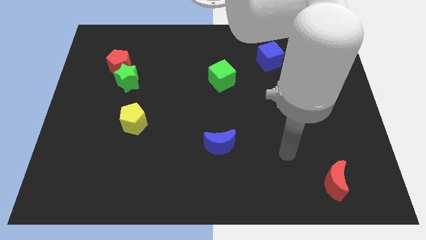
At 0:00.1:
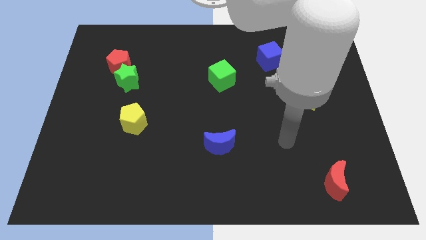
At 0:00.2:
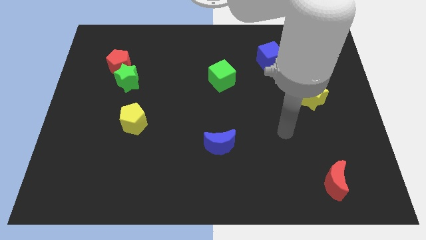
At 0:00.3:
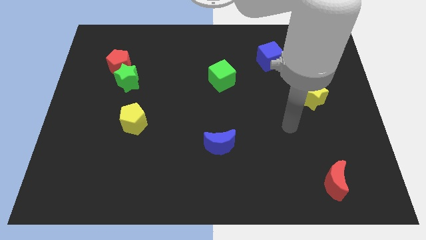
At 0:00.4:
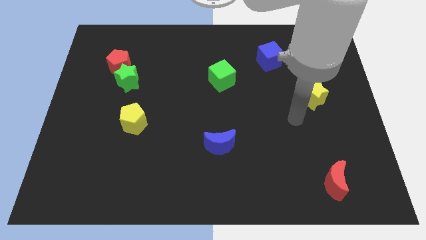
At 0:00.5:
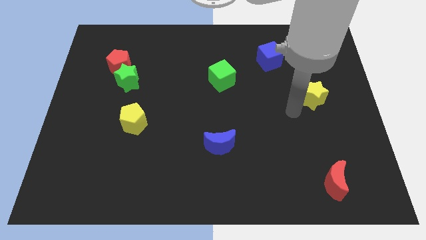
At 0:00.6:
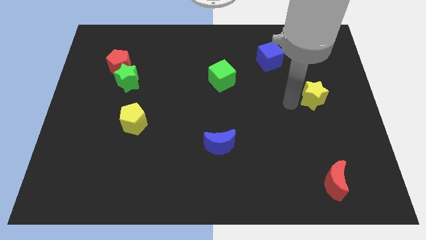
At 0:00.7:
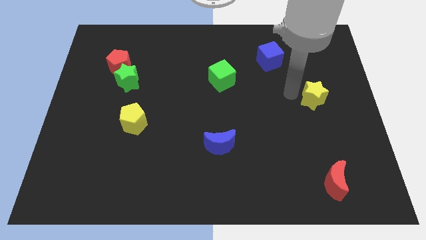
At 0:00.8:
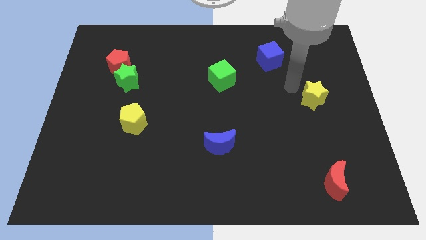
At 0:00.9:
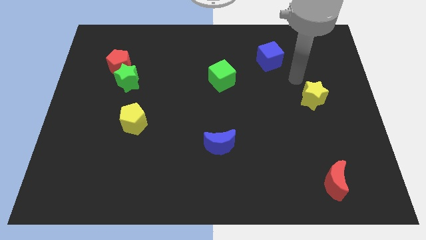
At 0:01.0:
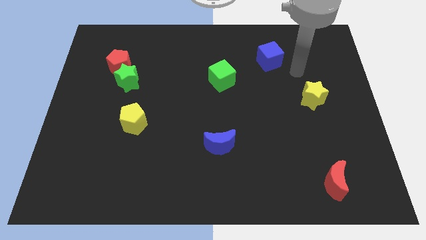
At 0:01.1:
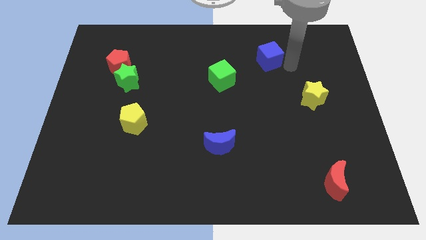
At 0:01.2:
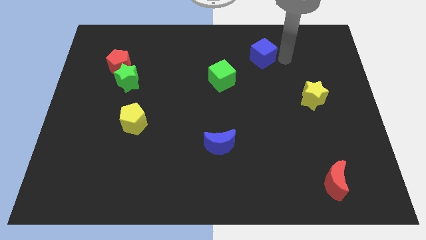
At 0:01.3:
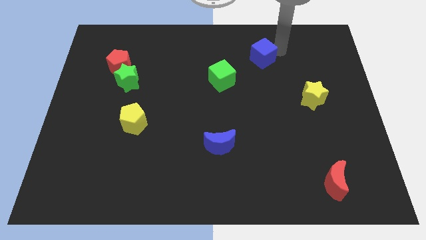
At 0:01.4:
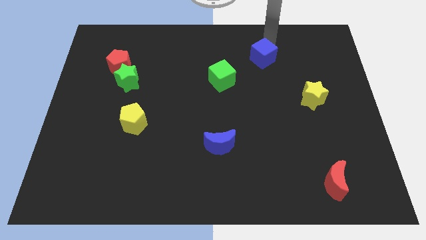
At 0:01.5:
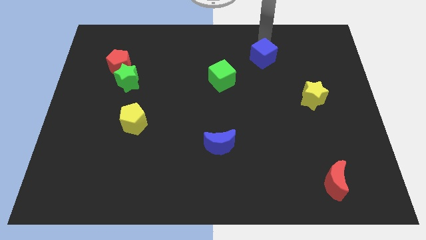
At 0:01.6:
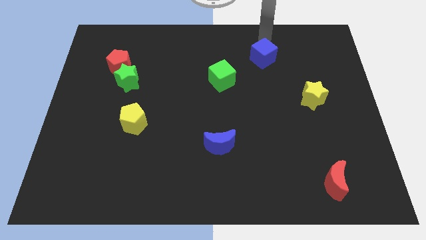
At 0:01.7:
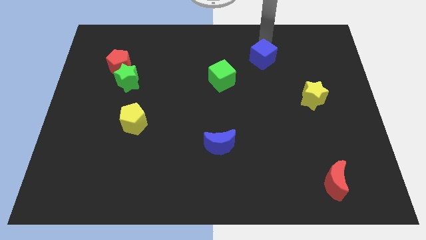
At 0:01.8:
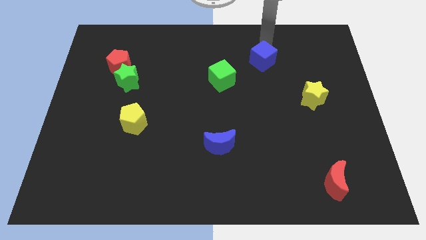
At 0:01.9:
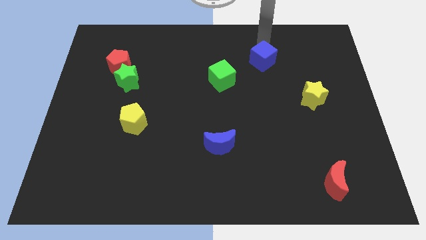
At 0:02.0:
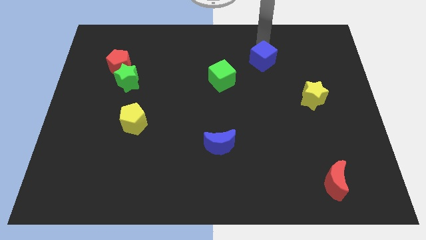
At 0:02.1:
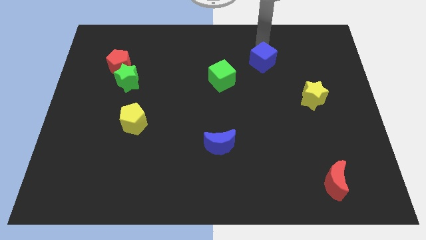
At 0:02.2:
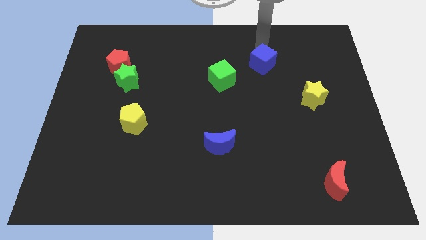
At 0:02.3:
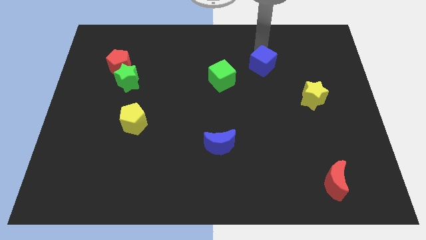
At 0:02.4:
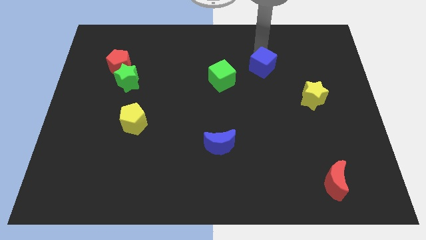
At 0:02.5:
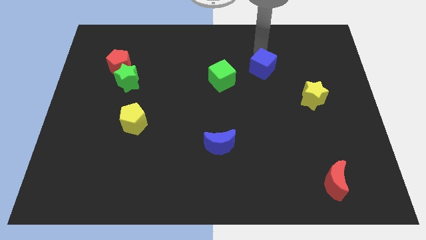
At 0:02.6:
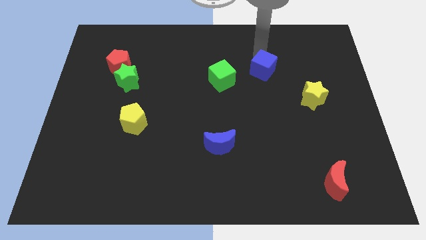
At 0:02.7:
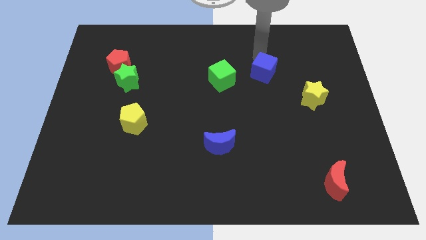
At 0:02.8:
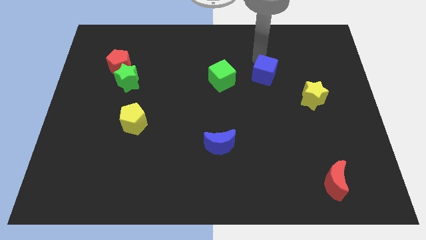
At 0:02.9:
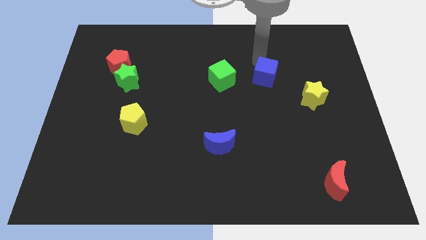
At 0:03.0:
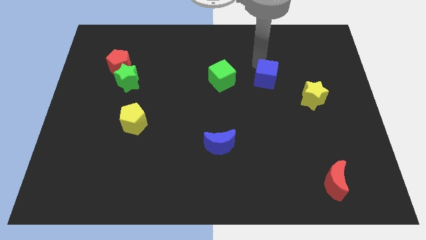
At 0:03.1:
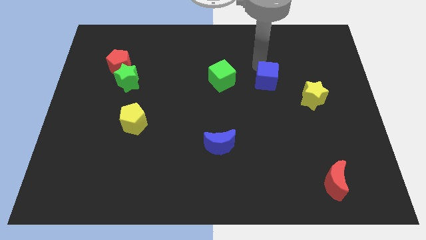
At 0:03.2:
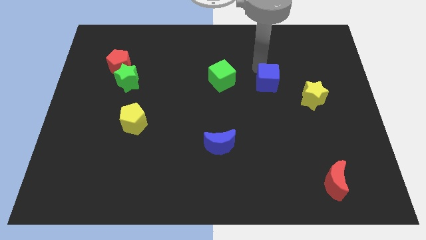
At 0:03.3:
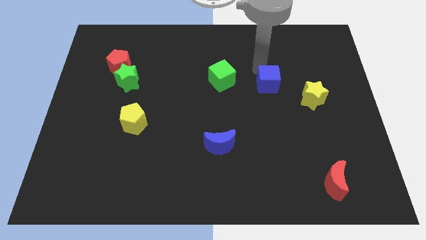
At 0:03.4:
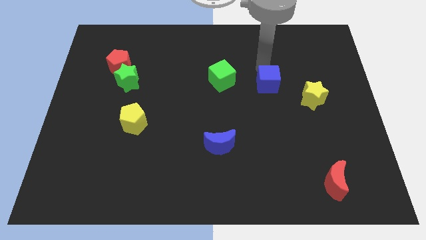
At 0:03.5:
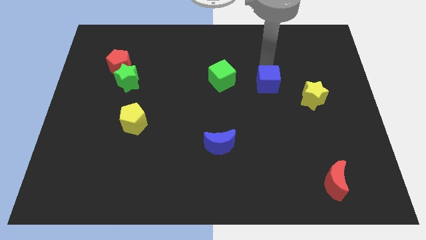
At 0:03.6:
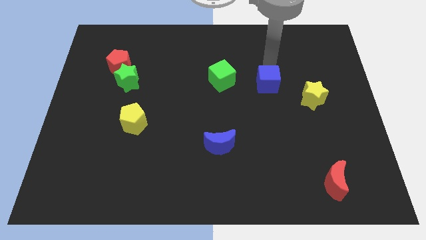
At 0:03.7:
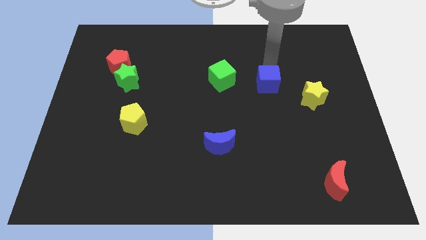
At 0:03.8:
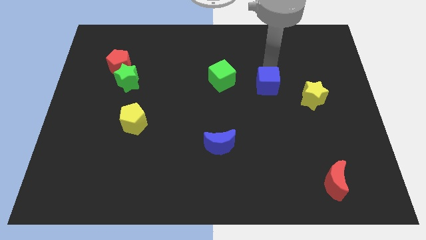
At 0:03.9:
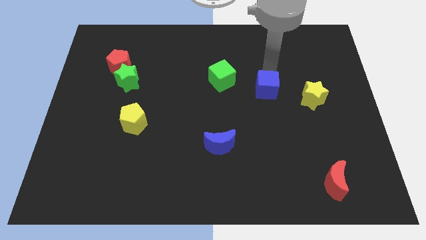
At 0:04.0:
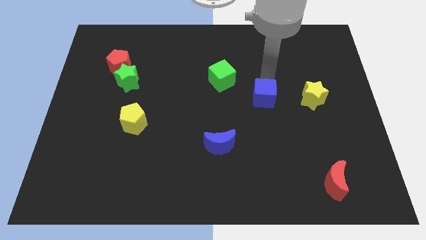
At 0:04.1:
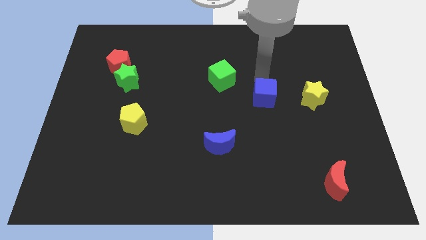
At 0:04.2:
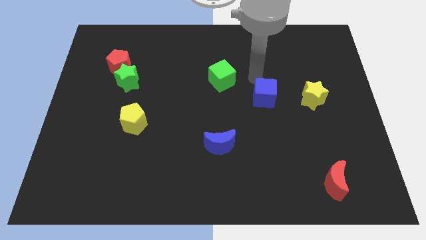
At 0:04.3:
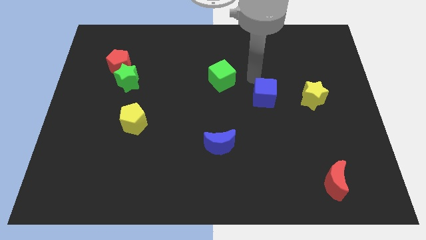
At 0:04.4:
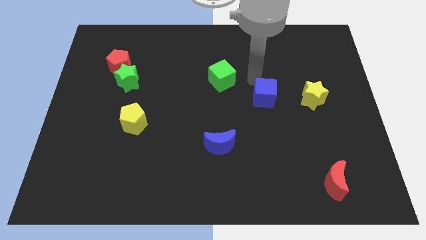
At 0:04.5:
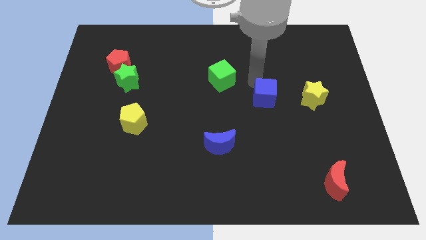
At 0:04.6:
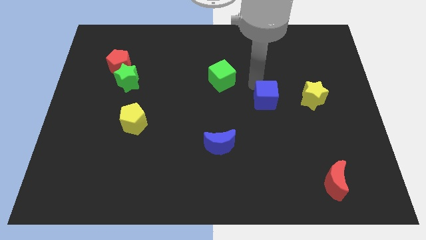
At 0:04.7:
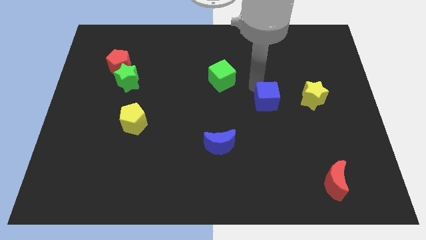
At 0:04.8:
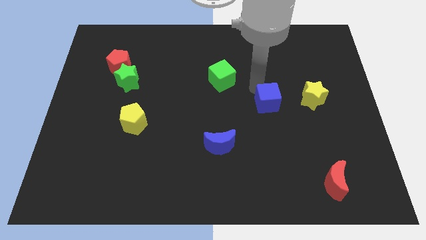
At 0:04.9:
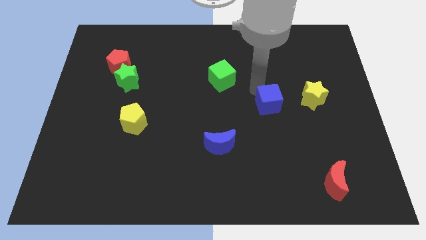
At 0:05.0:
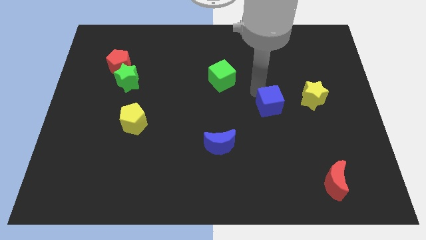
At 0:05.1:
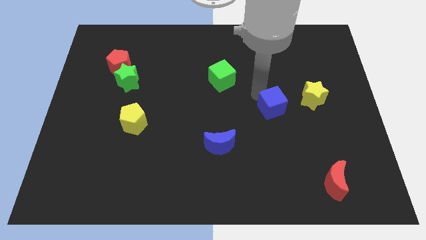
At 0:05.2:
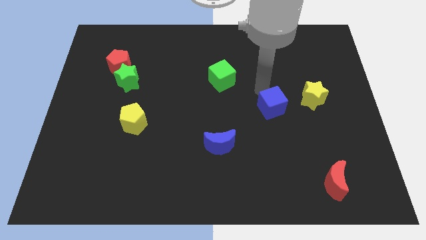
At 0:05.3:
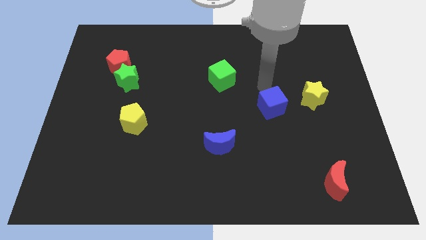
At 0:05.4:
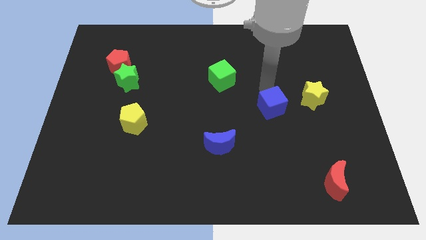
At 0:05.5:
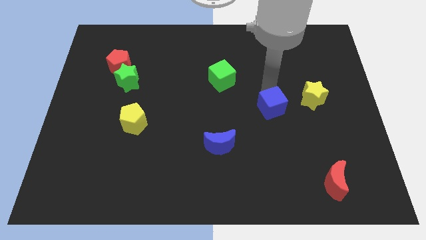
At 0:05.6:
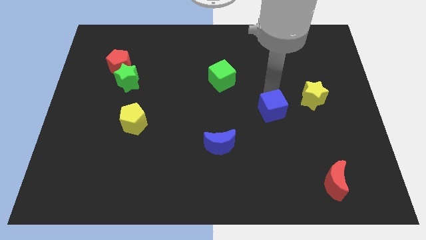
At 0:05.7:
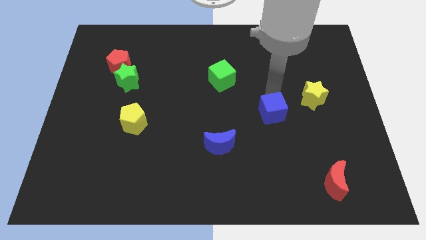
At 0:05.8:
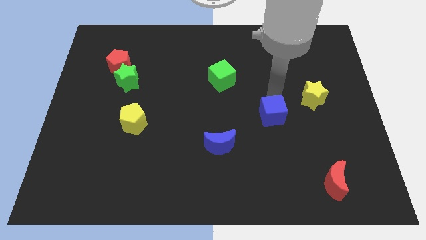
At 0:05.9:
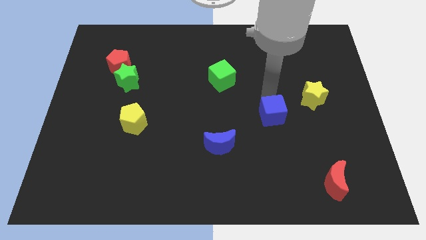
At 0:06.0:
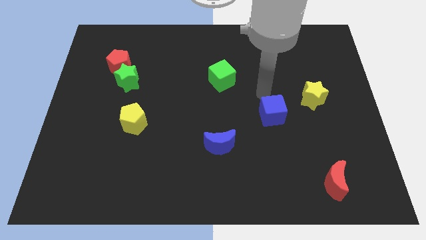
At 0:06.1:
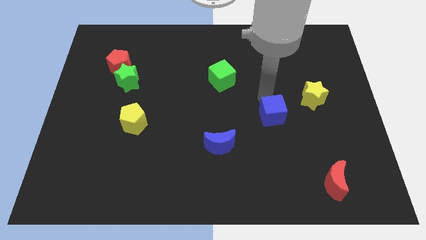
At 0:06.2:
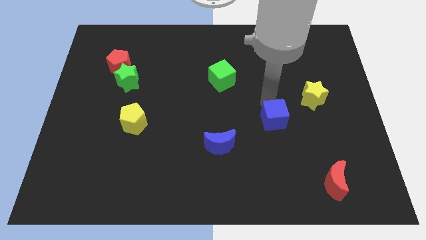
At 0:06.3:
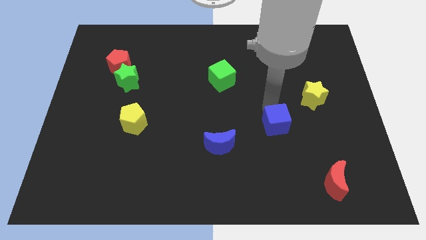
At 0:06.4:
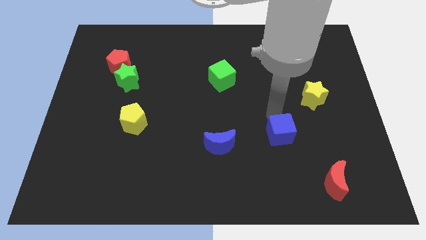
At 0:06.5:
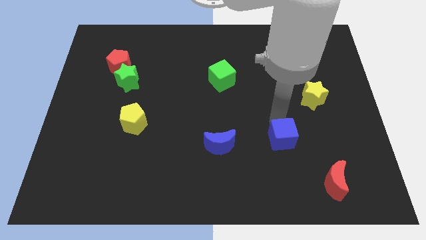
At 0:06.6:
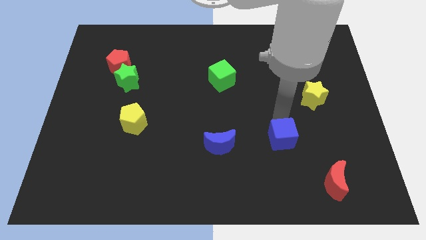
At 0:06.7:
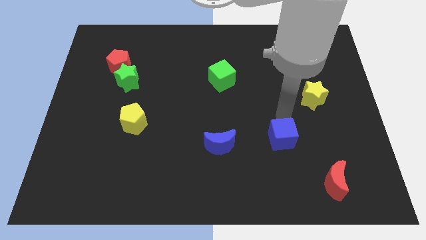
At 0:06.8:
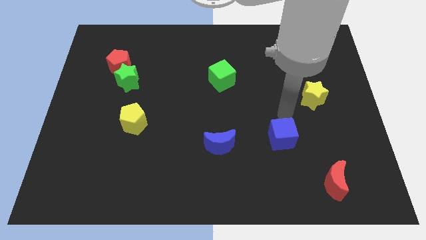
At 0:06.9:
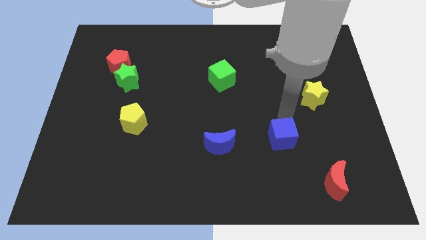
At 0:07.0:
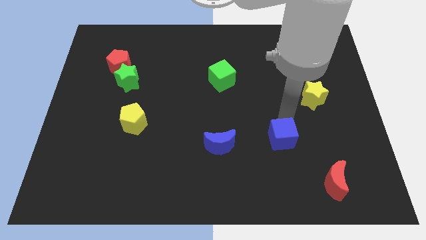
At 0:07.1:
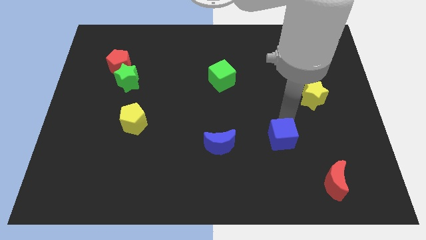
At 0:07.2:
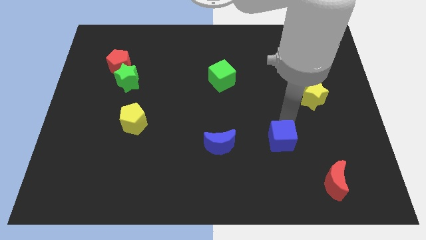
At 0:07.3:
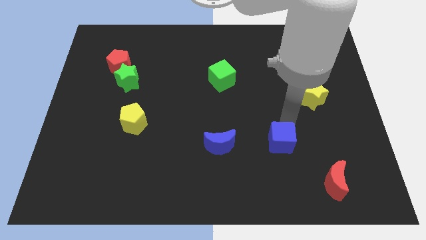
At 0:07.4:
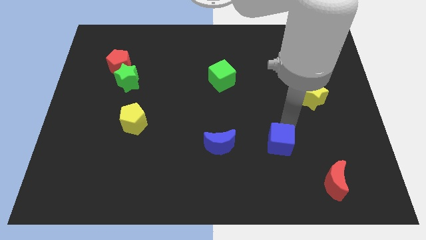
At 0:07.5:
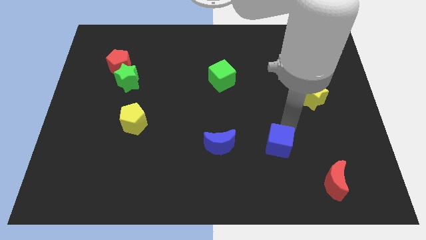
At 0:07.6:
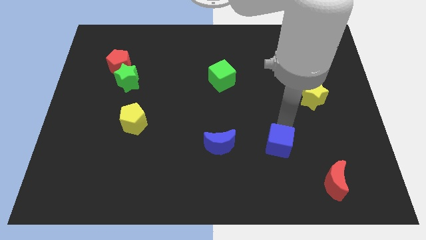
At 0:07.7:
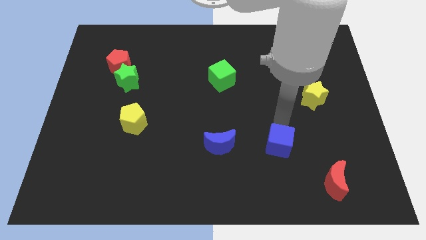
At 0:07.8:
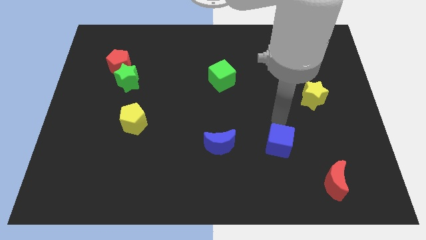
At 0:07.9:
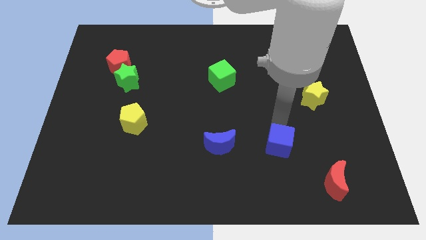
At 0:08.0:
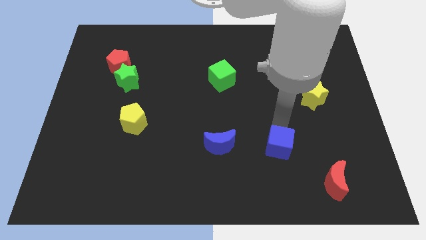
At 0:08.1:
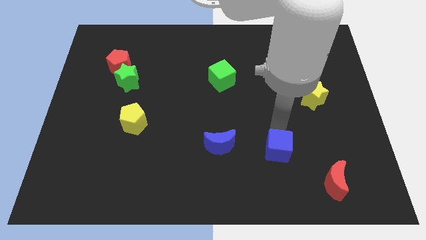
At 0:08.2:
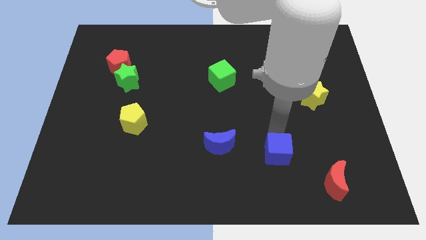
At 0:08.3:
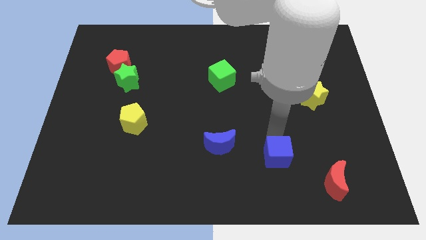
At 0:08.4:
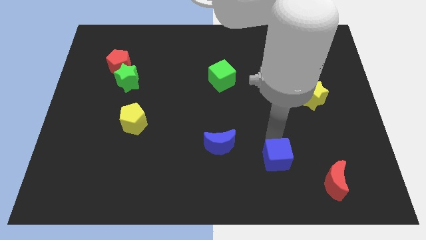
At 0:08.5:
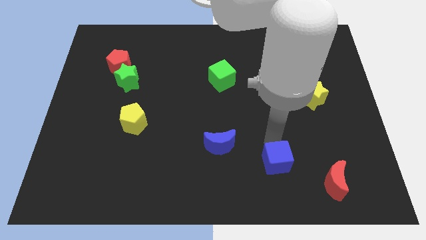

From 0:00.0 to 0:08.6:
slide the blue cube to the left of the red moon
